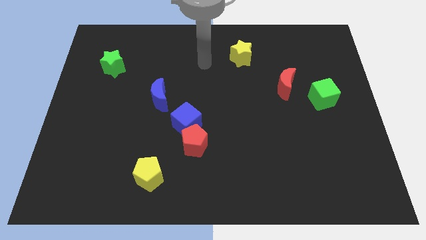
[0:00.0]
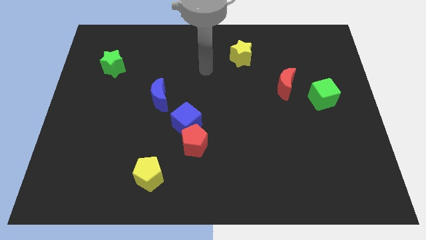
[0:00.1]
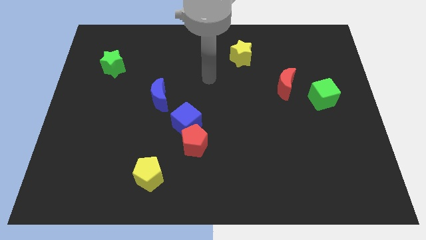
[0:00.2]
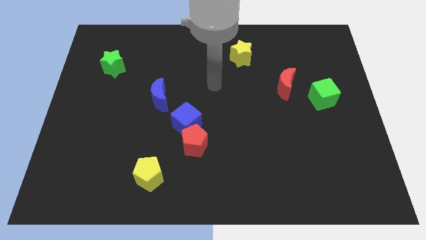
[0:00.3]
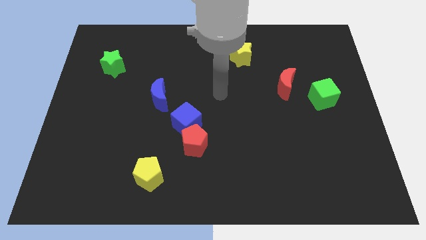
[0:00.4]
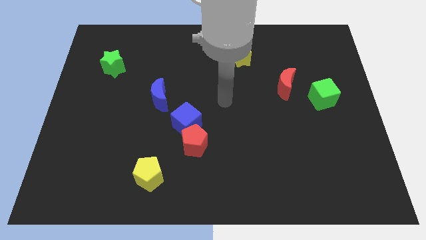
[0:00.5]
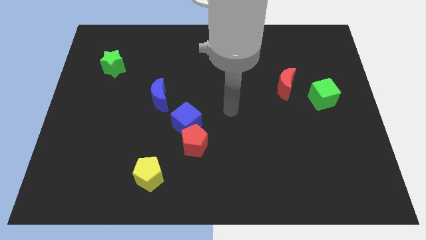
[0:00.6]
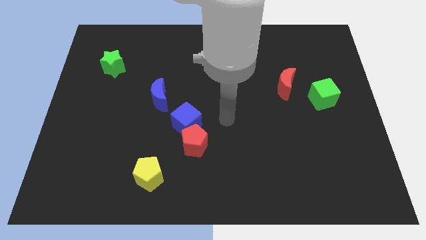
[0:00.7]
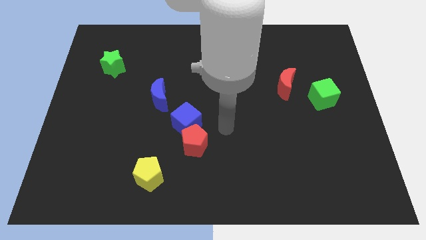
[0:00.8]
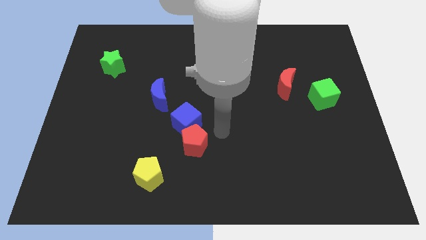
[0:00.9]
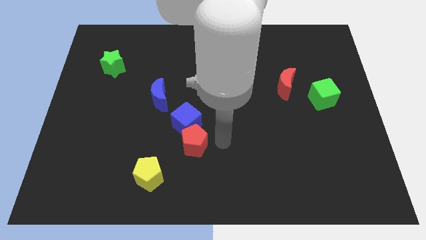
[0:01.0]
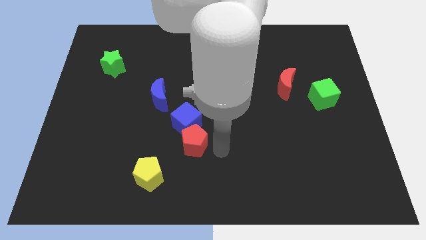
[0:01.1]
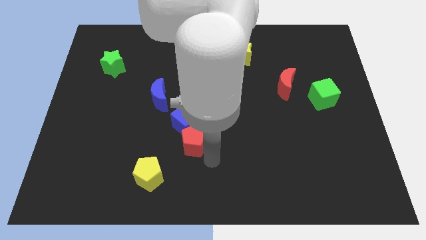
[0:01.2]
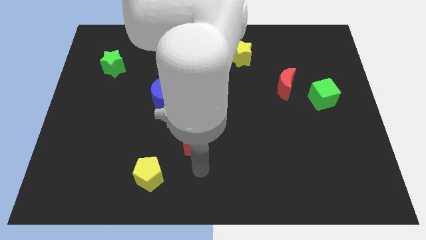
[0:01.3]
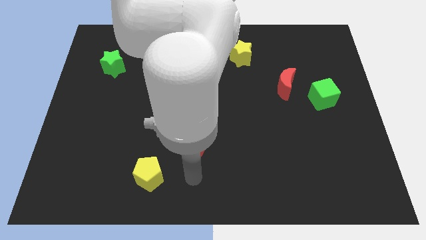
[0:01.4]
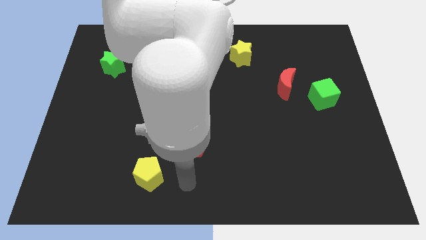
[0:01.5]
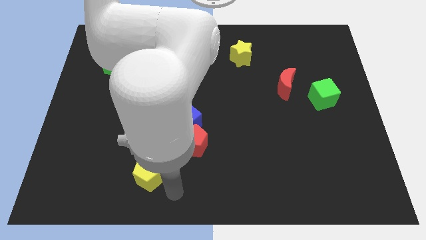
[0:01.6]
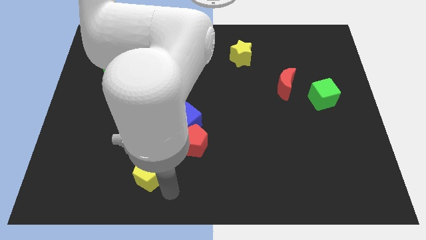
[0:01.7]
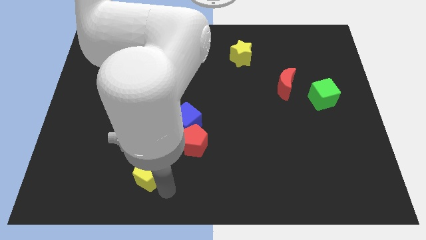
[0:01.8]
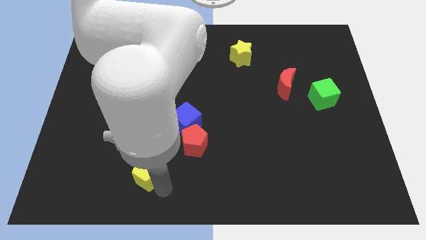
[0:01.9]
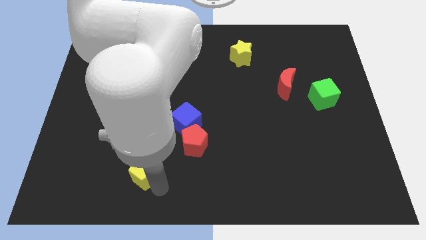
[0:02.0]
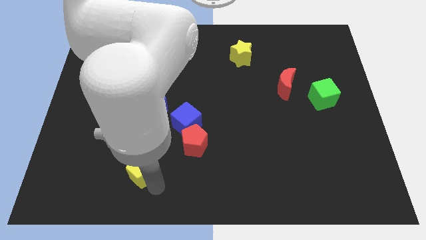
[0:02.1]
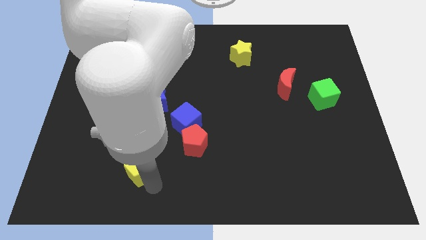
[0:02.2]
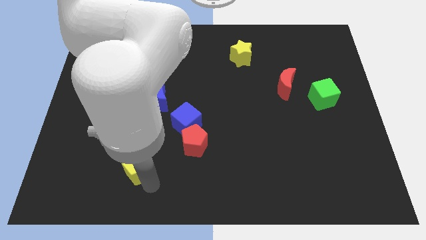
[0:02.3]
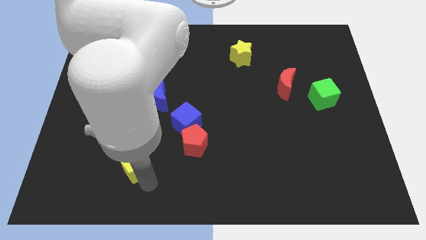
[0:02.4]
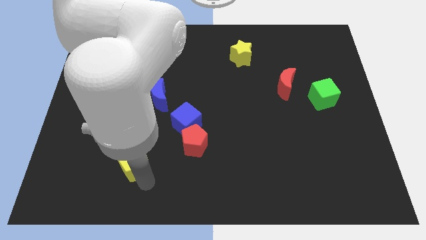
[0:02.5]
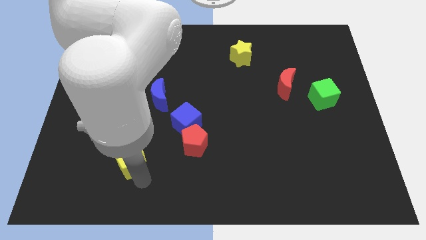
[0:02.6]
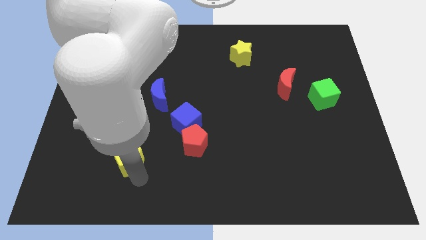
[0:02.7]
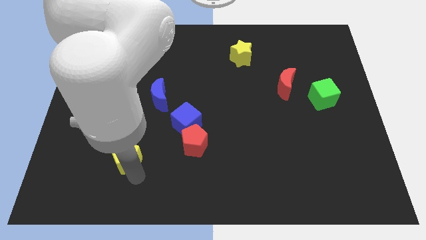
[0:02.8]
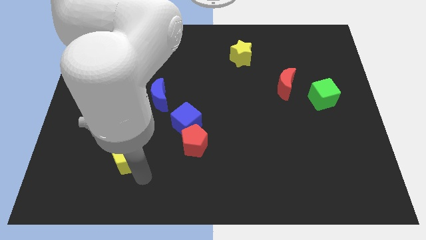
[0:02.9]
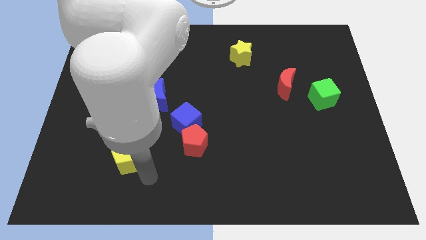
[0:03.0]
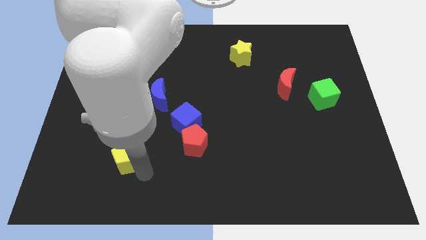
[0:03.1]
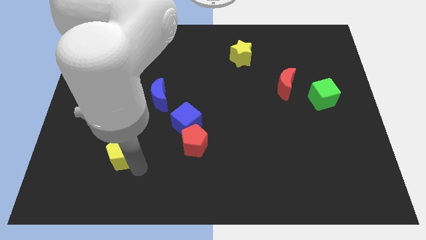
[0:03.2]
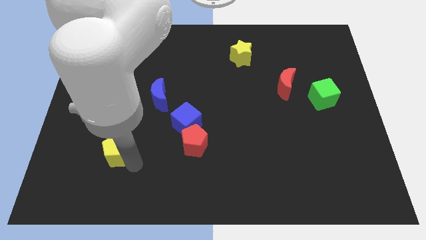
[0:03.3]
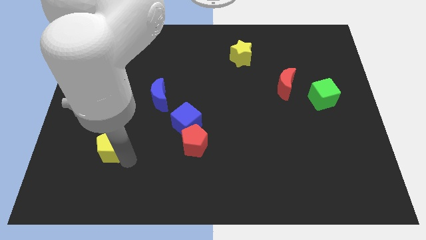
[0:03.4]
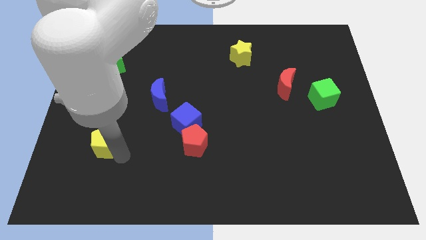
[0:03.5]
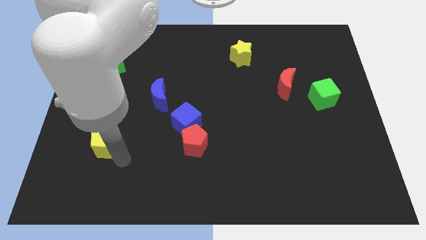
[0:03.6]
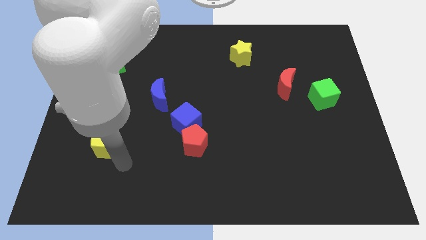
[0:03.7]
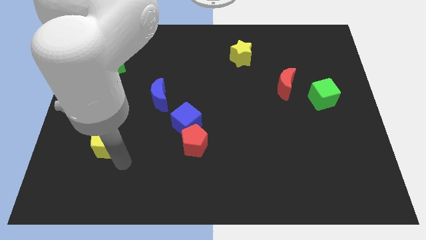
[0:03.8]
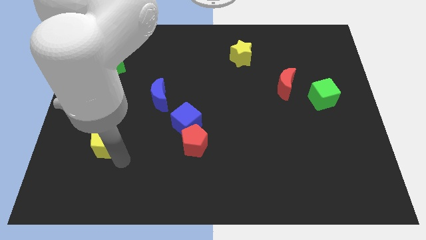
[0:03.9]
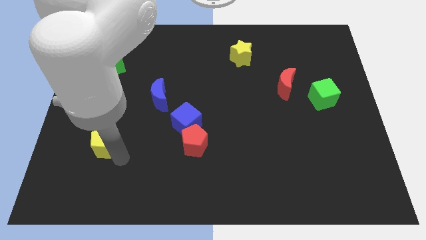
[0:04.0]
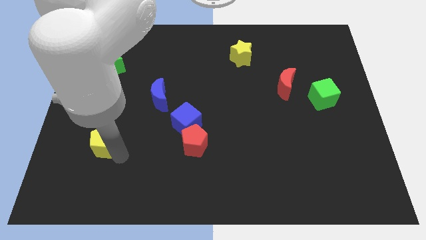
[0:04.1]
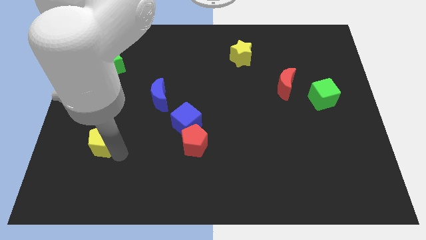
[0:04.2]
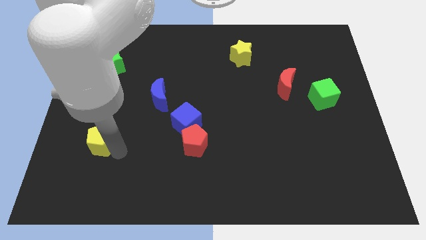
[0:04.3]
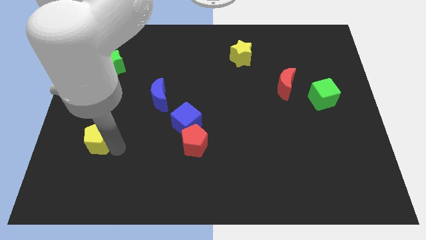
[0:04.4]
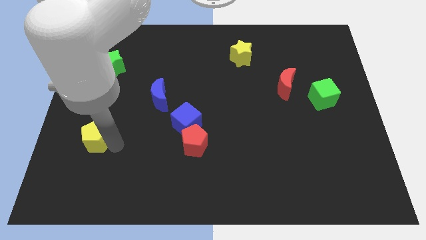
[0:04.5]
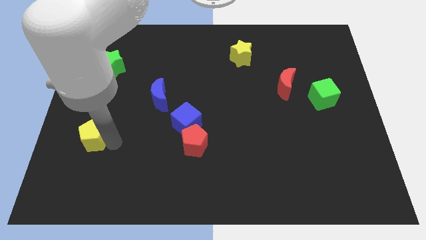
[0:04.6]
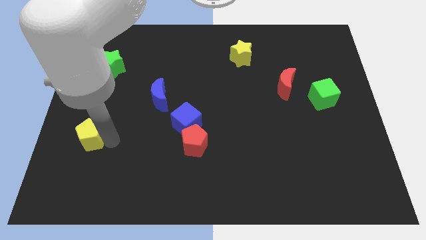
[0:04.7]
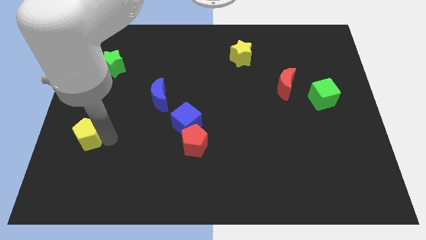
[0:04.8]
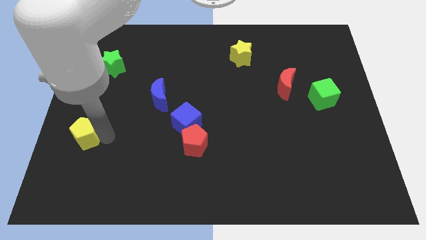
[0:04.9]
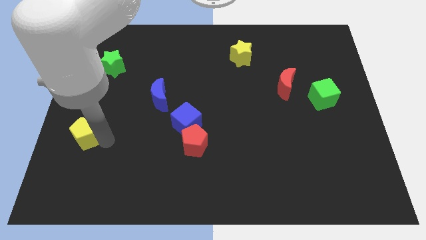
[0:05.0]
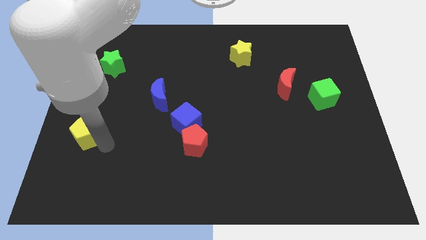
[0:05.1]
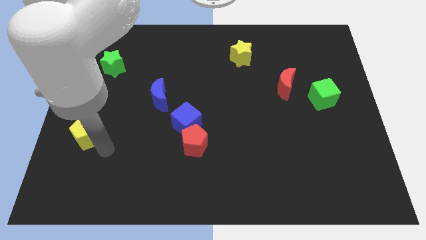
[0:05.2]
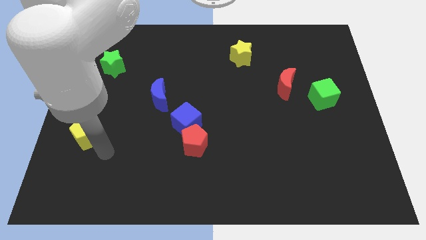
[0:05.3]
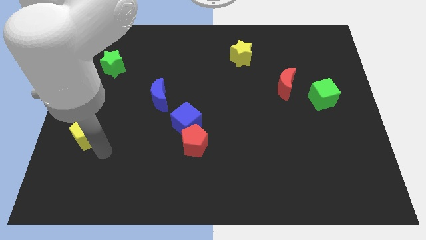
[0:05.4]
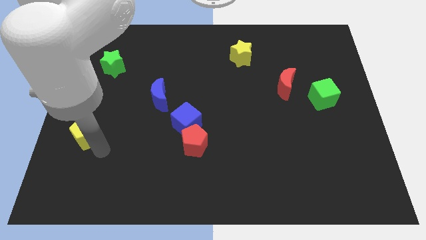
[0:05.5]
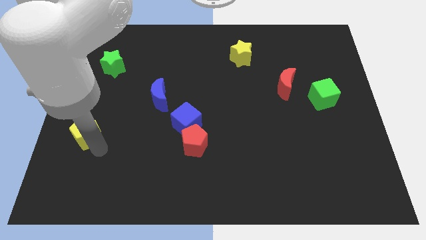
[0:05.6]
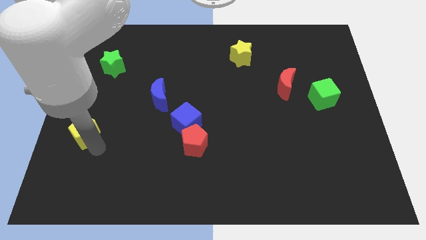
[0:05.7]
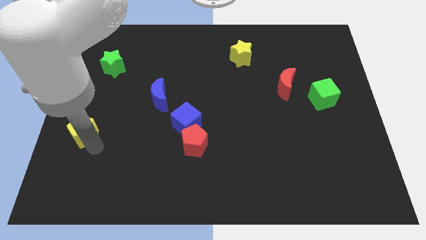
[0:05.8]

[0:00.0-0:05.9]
move the yellow pentagon to the left side of the board
